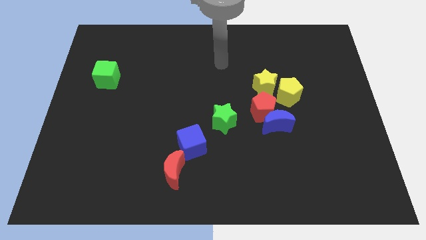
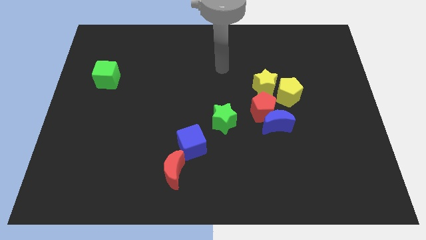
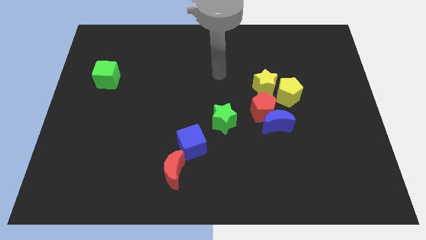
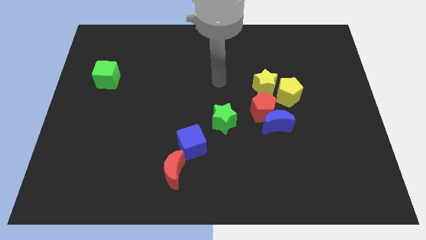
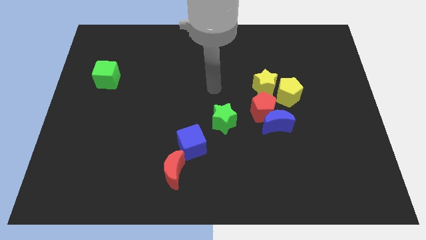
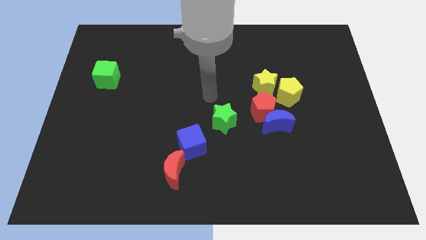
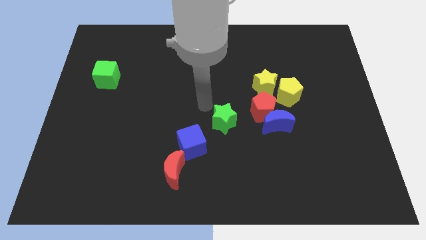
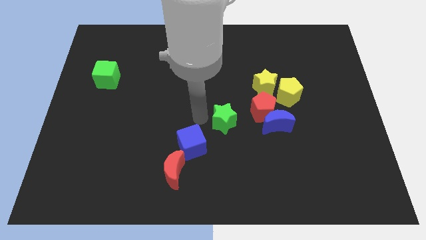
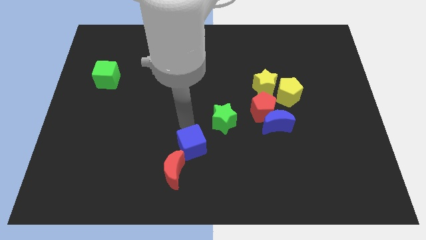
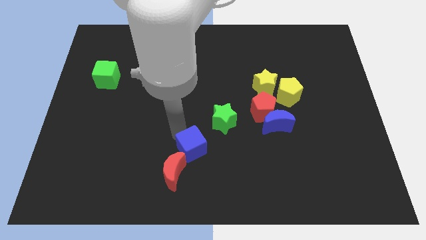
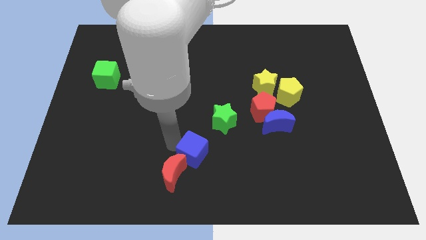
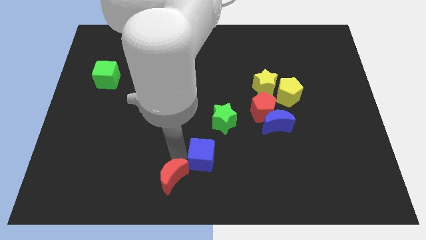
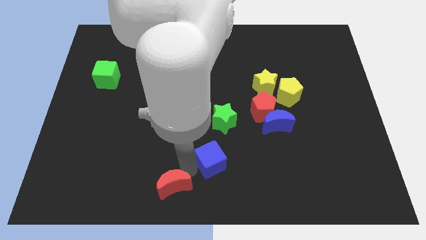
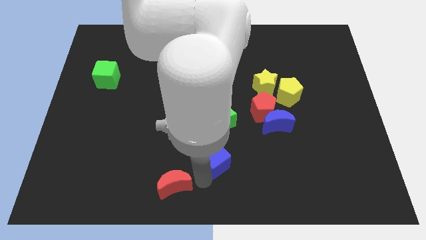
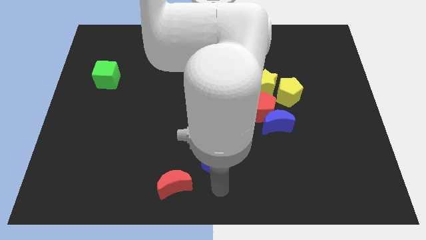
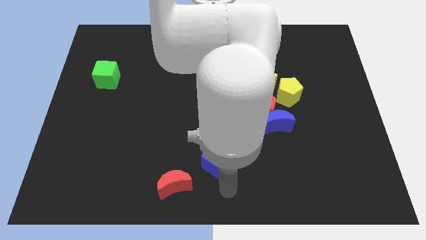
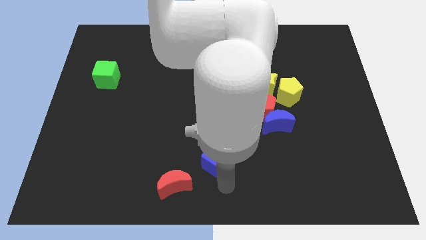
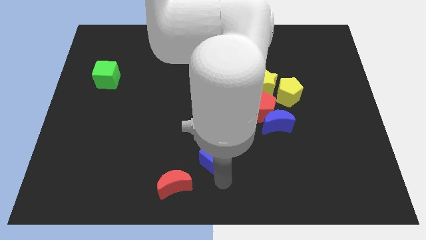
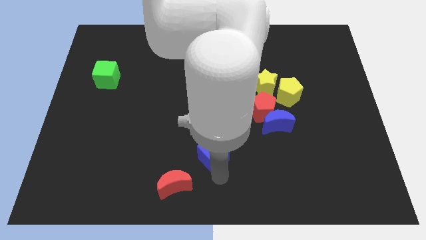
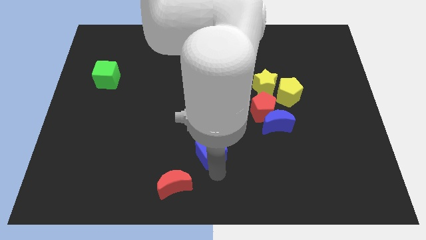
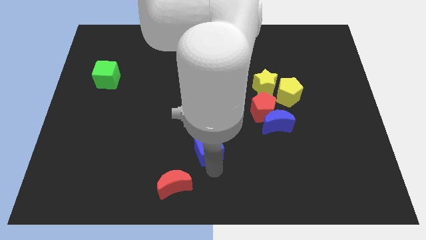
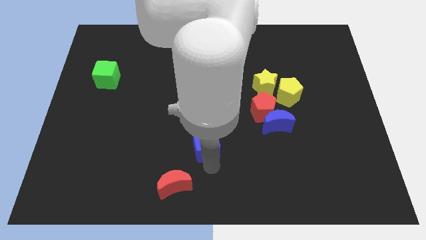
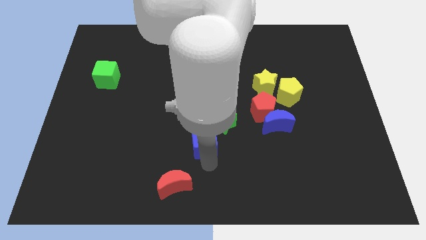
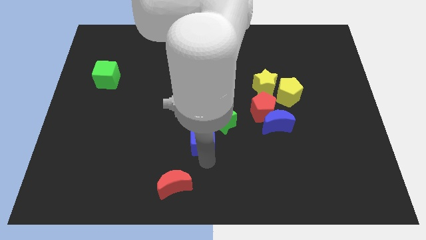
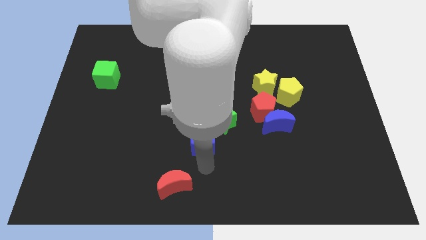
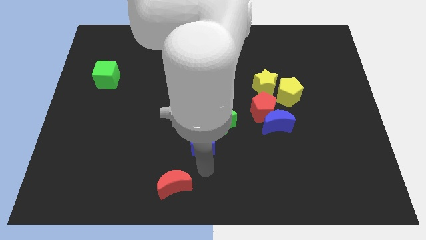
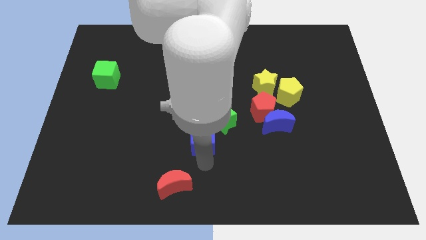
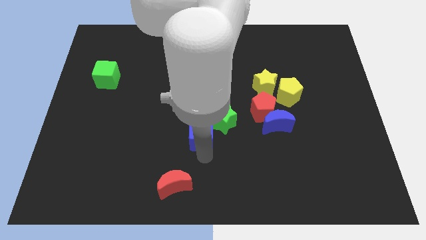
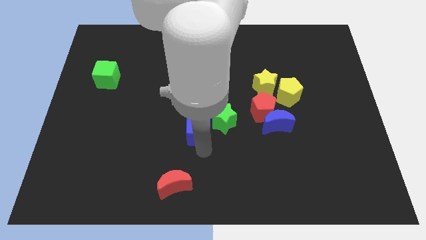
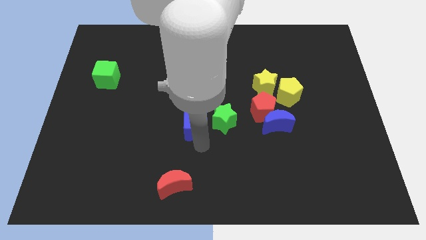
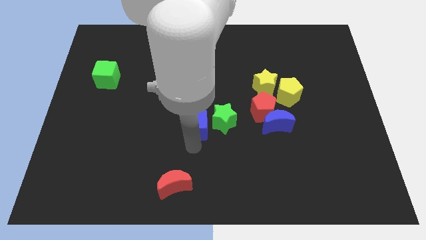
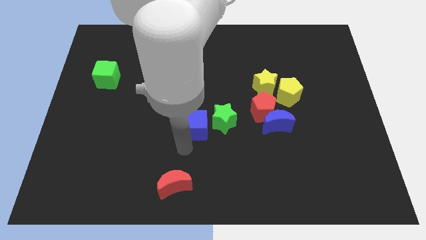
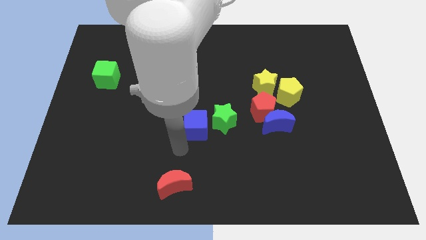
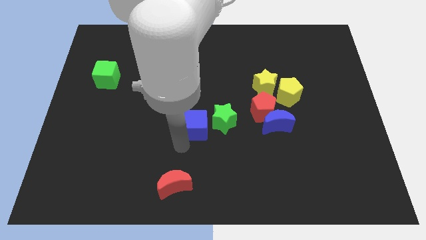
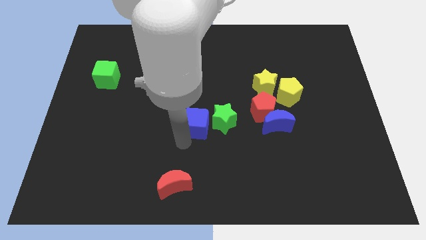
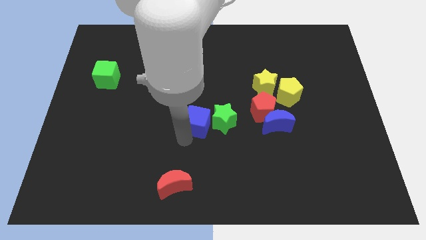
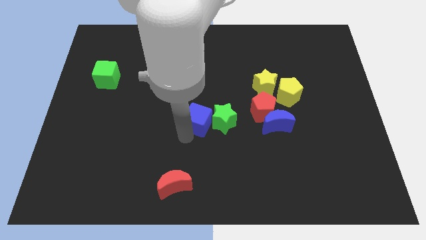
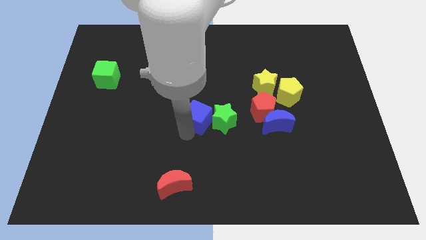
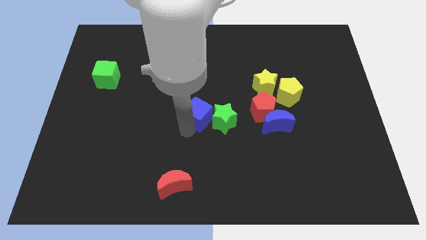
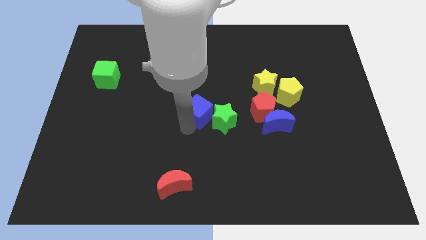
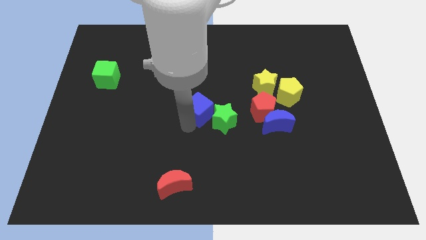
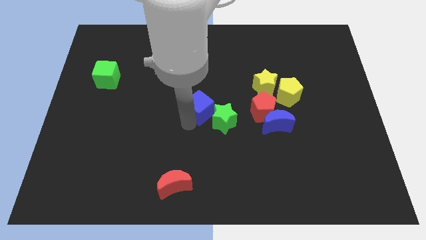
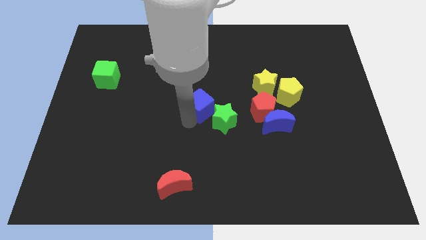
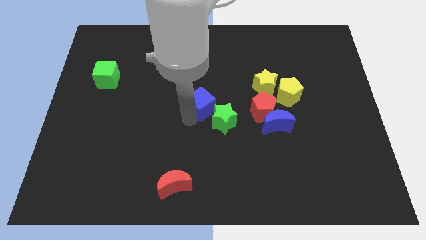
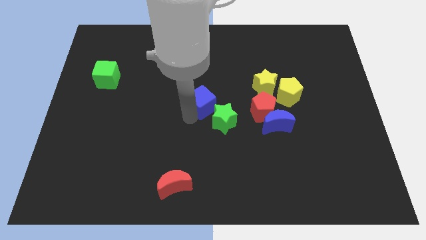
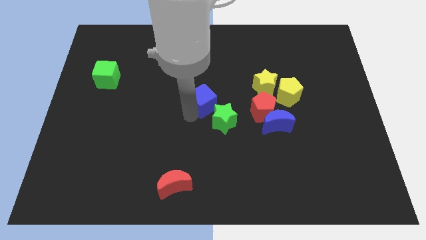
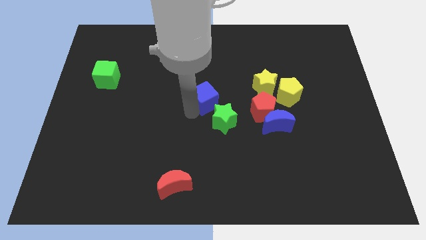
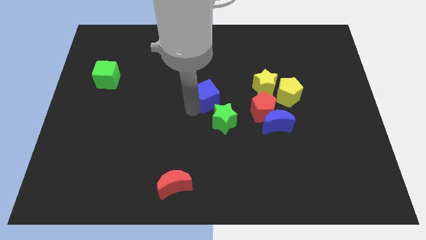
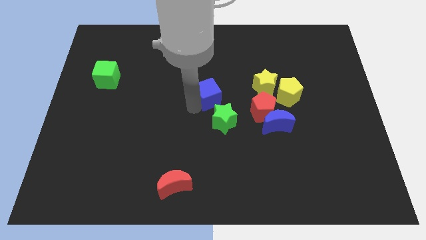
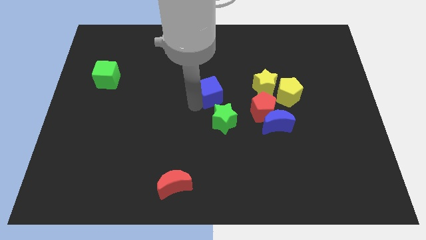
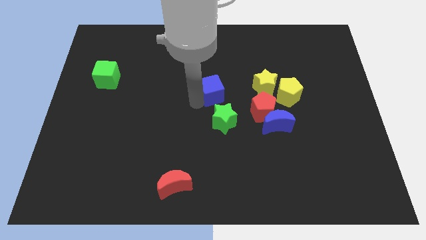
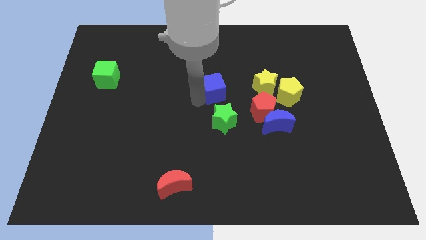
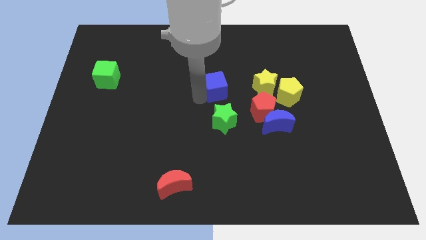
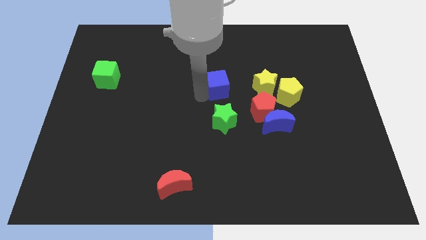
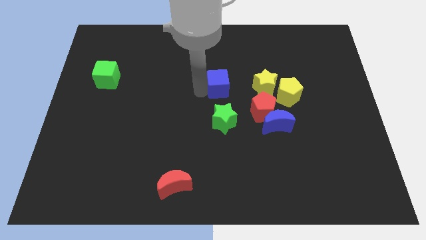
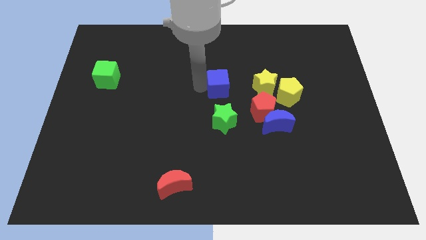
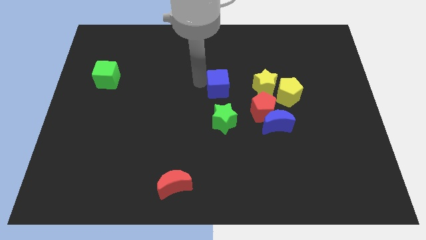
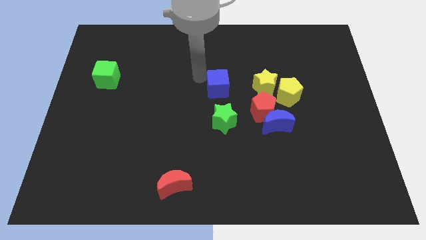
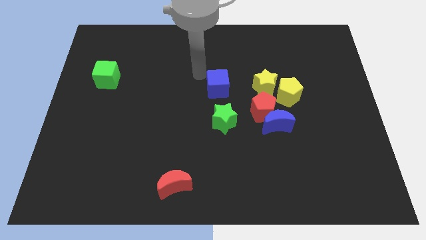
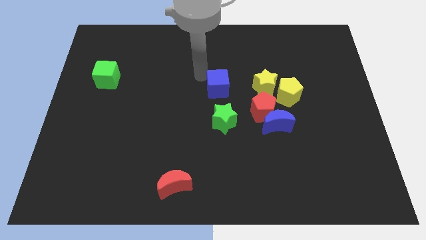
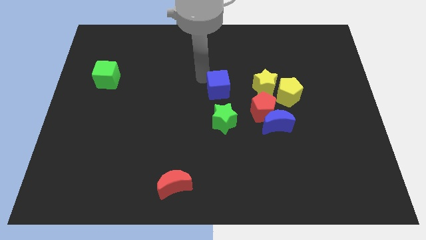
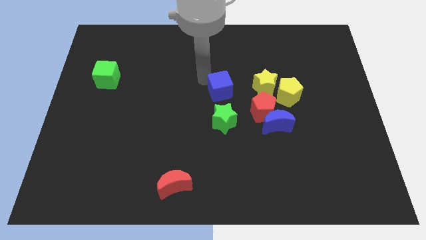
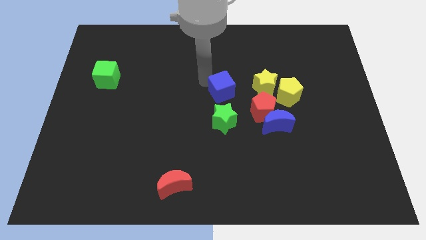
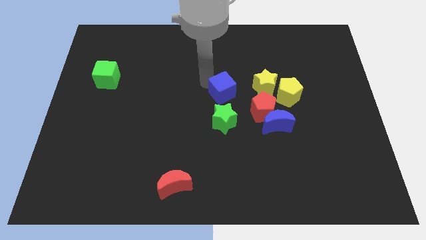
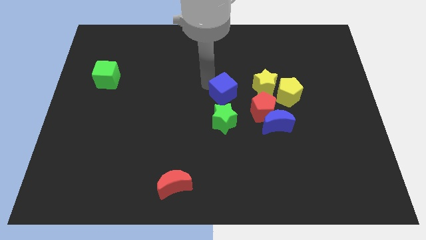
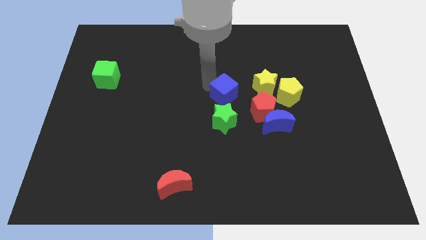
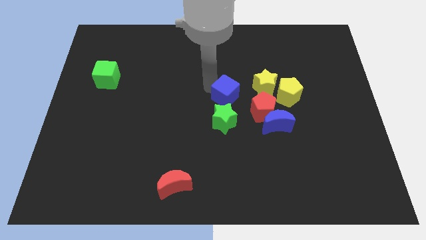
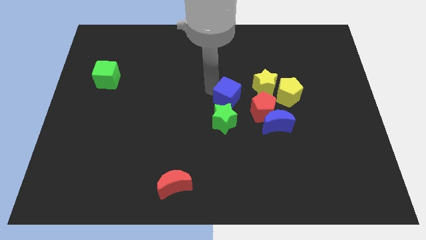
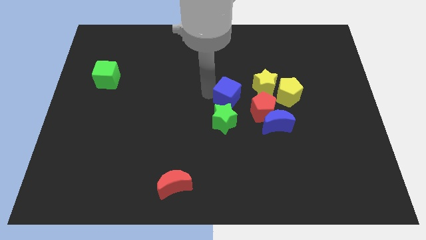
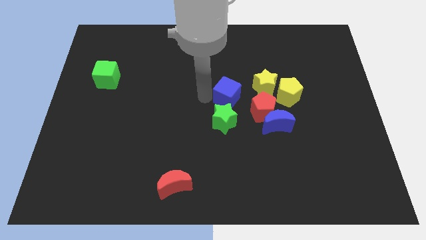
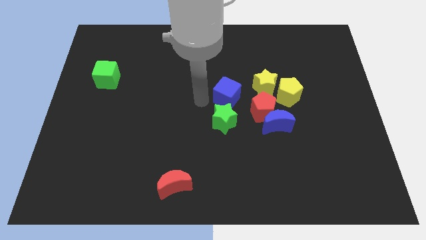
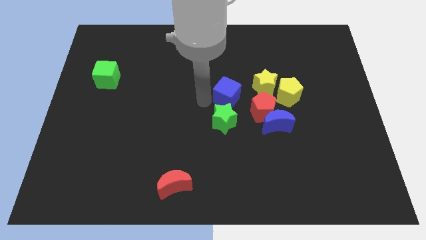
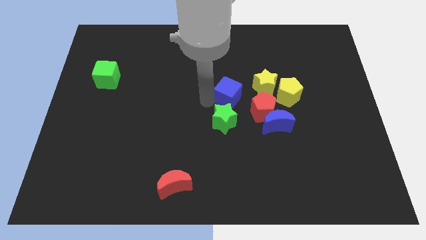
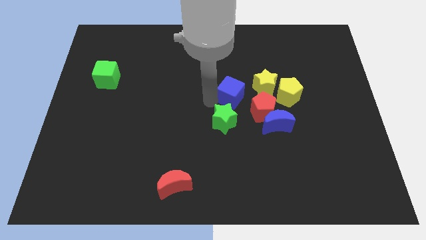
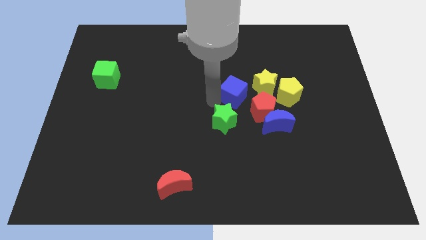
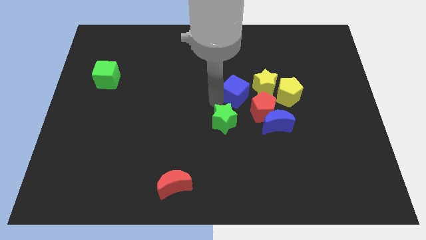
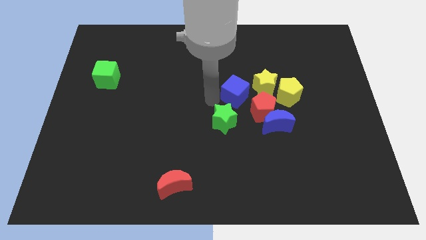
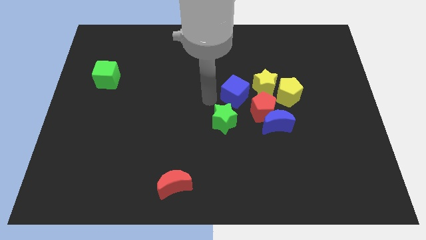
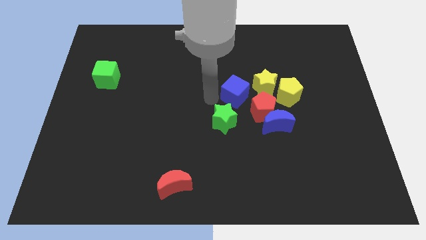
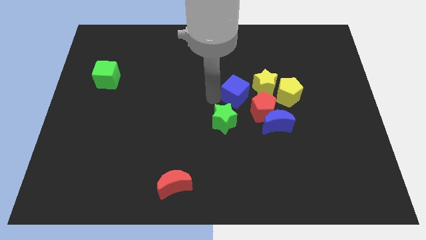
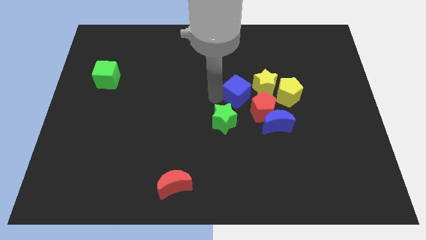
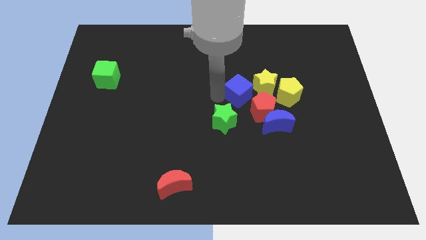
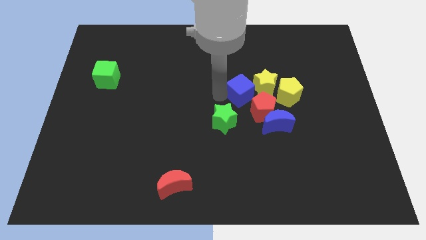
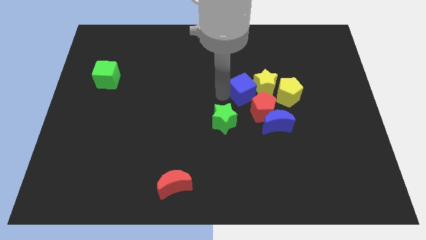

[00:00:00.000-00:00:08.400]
move the blue cube to the yellow star
